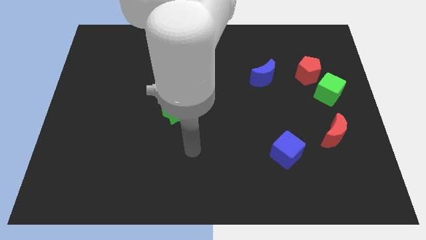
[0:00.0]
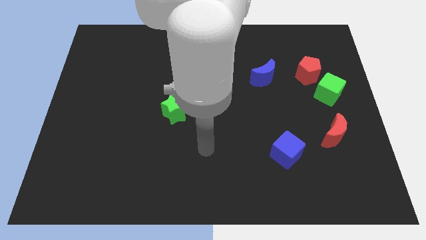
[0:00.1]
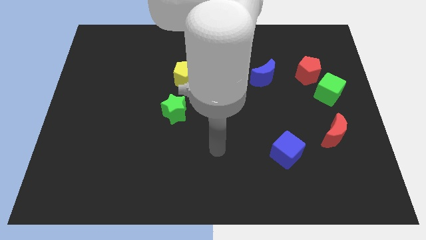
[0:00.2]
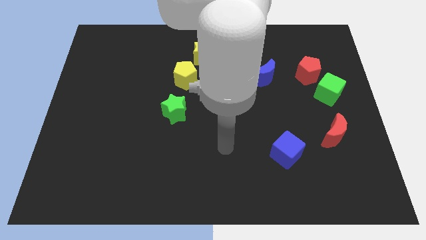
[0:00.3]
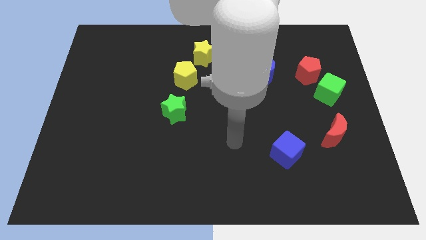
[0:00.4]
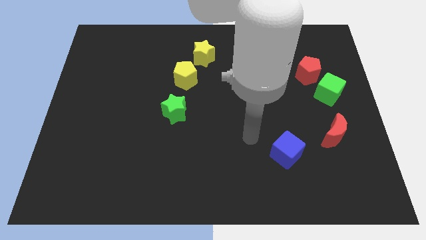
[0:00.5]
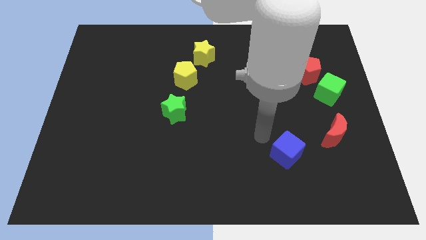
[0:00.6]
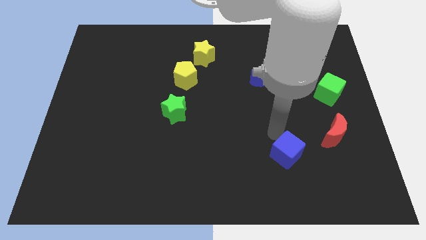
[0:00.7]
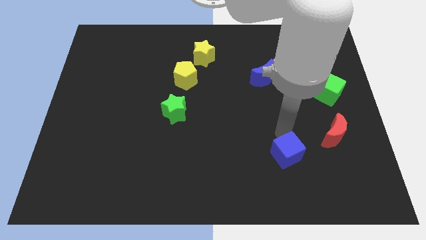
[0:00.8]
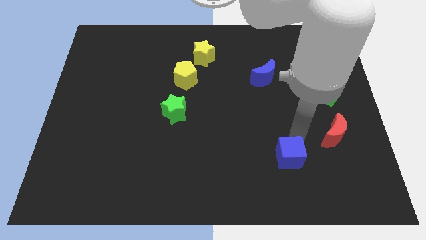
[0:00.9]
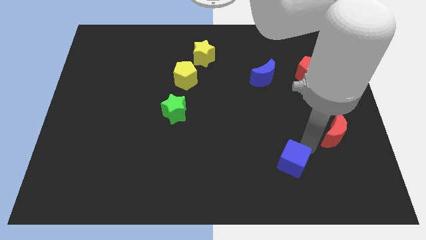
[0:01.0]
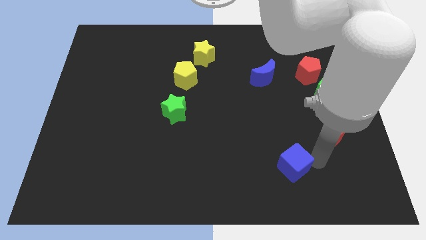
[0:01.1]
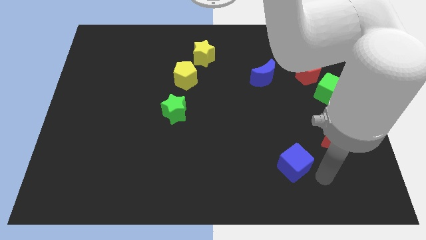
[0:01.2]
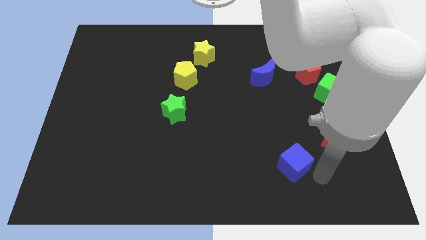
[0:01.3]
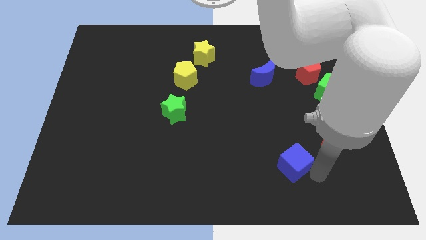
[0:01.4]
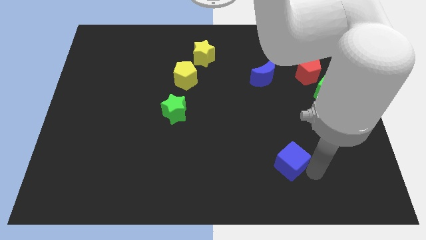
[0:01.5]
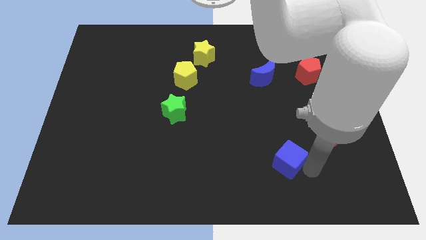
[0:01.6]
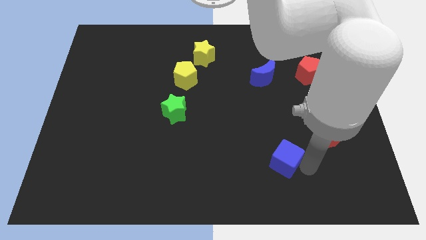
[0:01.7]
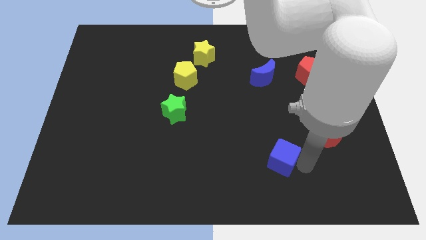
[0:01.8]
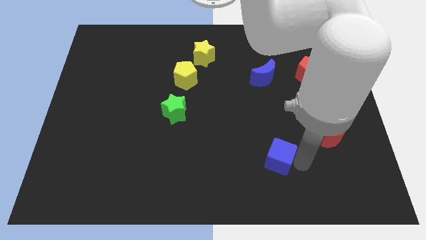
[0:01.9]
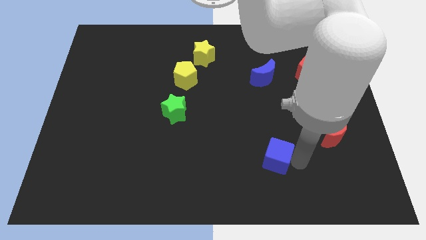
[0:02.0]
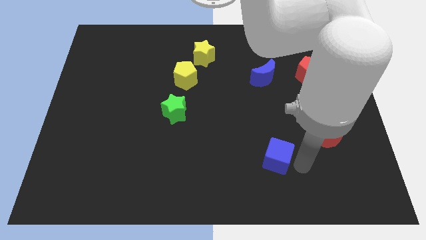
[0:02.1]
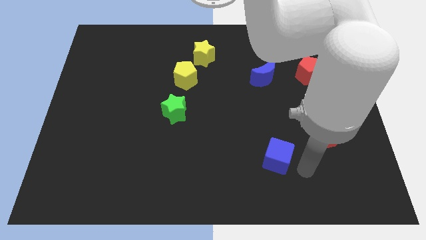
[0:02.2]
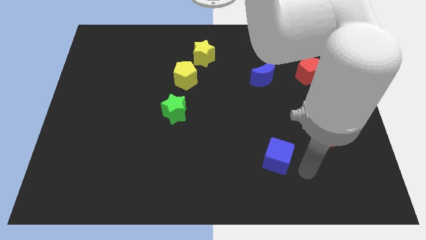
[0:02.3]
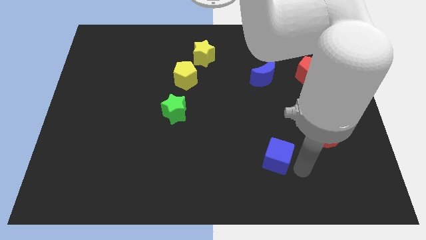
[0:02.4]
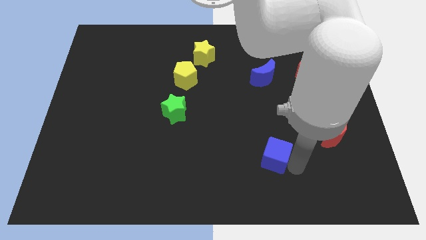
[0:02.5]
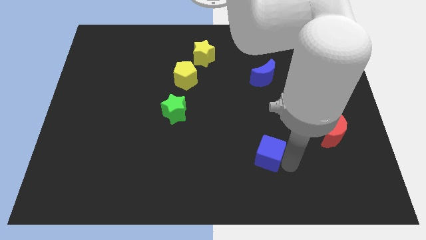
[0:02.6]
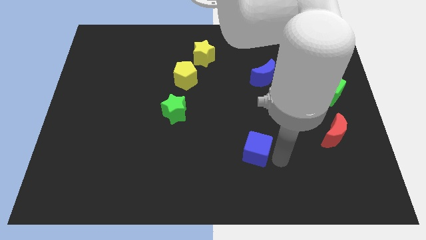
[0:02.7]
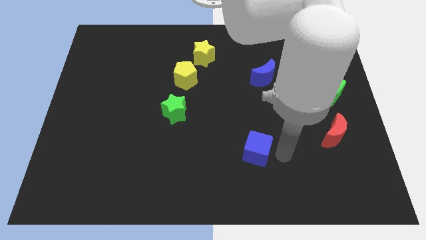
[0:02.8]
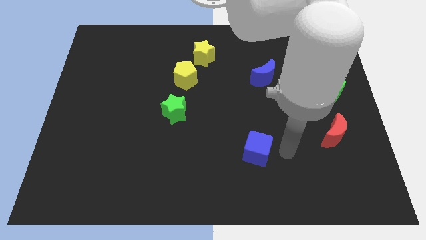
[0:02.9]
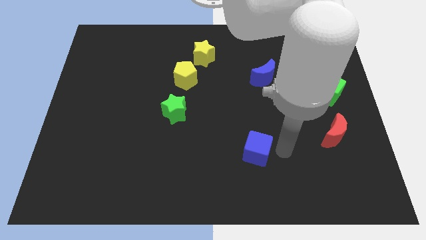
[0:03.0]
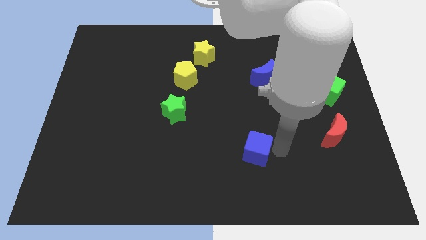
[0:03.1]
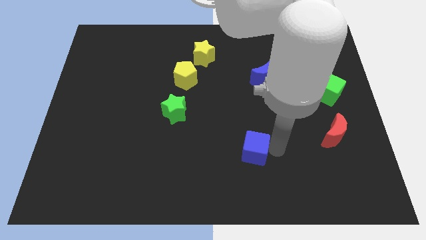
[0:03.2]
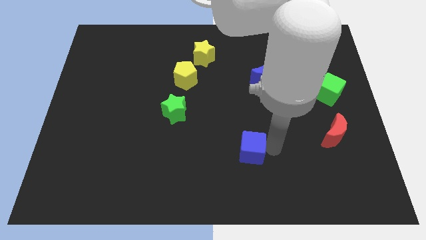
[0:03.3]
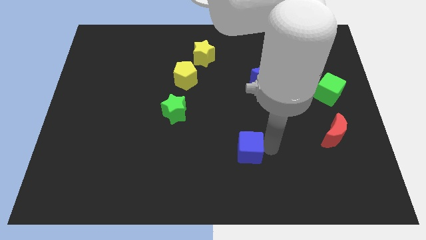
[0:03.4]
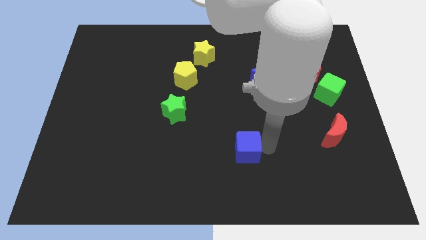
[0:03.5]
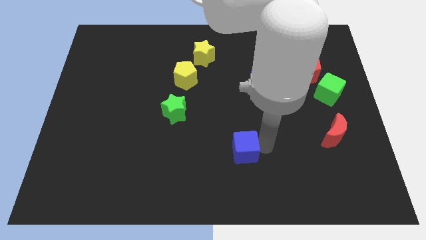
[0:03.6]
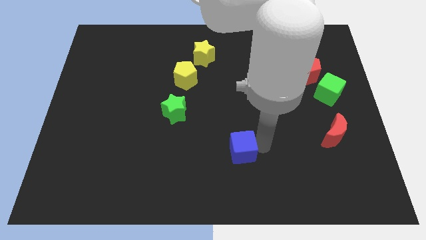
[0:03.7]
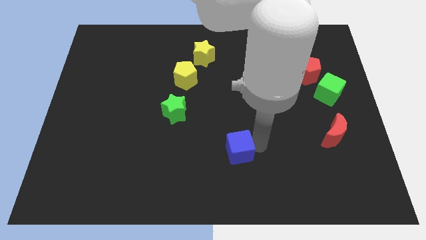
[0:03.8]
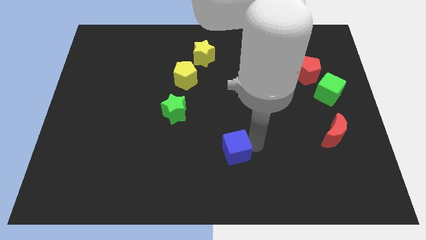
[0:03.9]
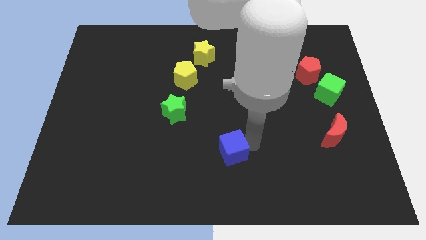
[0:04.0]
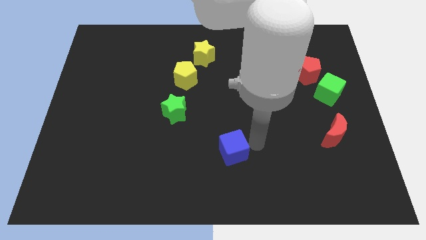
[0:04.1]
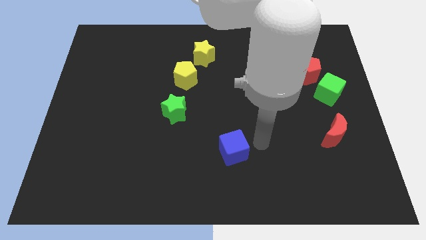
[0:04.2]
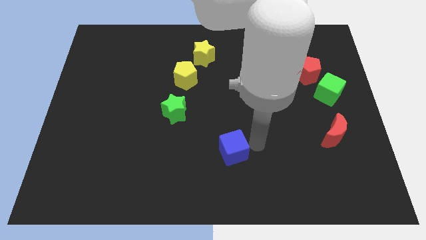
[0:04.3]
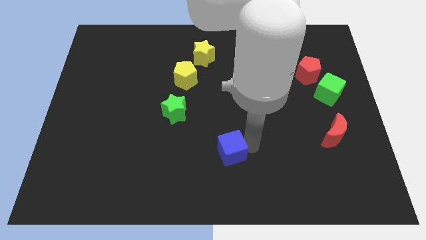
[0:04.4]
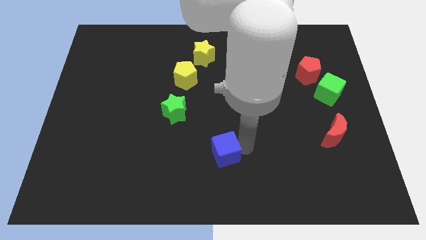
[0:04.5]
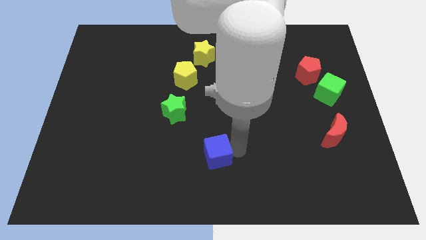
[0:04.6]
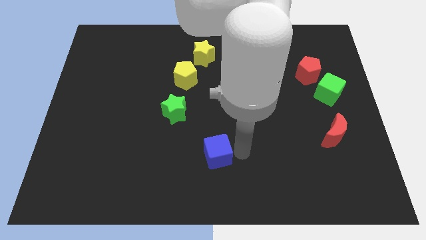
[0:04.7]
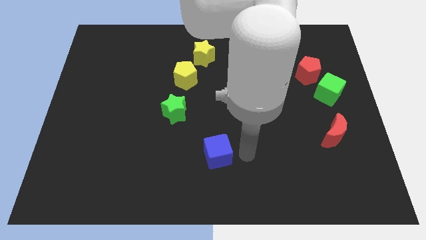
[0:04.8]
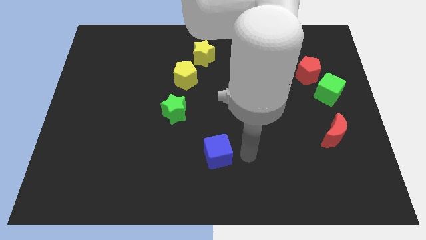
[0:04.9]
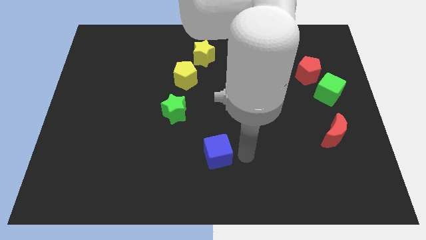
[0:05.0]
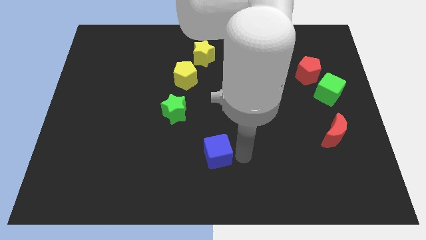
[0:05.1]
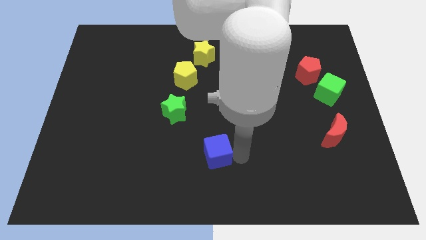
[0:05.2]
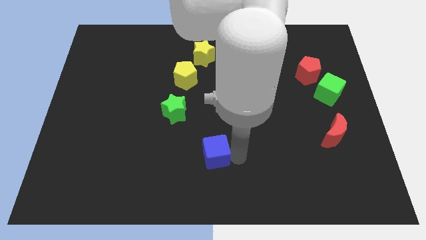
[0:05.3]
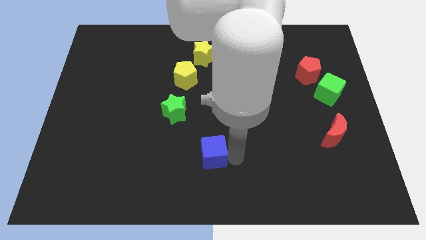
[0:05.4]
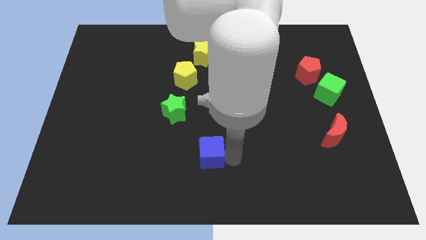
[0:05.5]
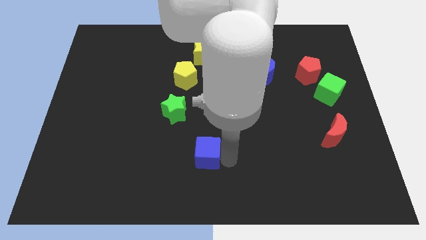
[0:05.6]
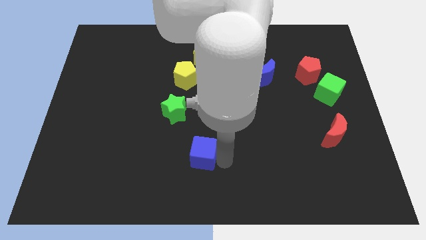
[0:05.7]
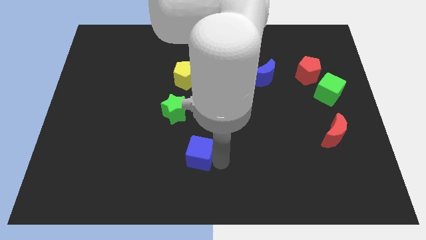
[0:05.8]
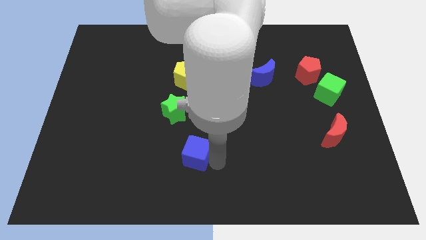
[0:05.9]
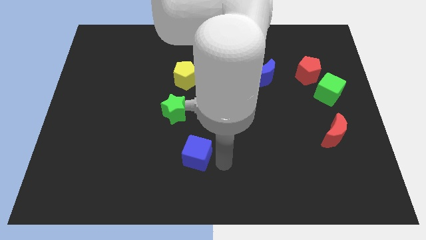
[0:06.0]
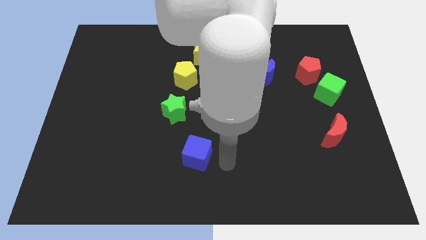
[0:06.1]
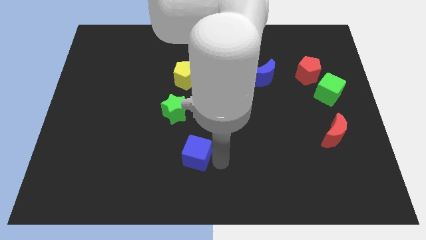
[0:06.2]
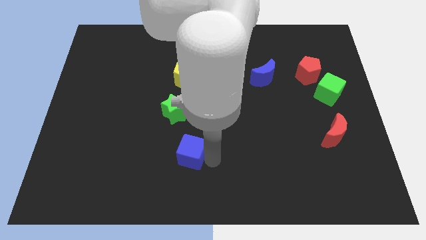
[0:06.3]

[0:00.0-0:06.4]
slide the blue cube to the bottom of the green star

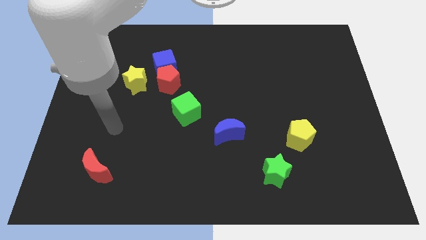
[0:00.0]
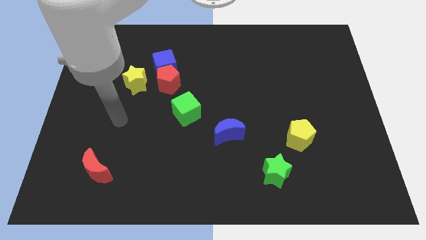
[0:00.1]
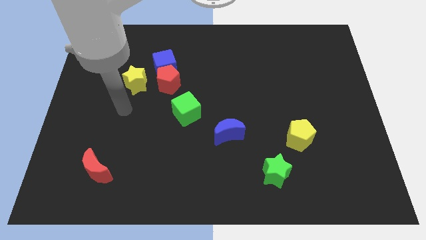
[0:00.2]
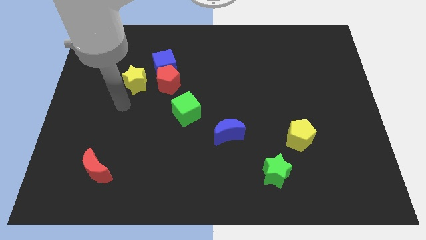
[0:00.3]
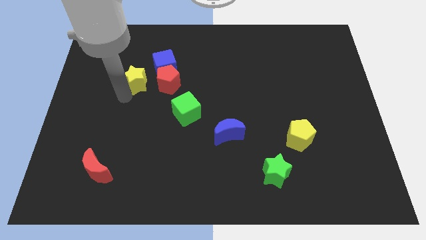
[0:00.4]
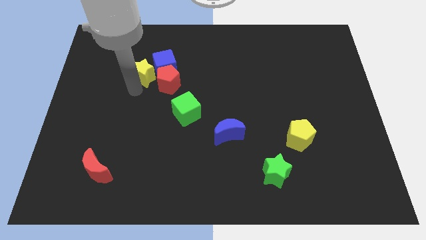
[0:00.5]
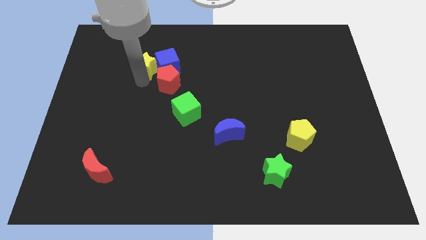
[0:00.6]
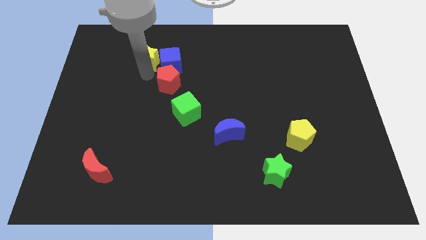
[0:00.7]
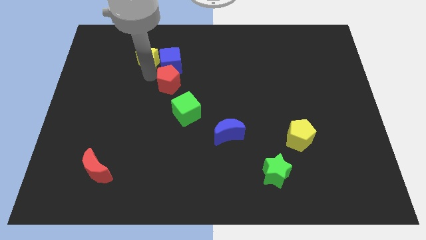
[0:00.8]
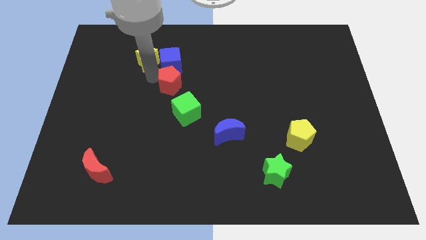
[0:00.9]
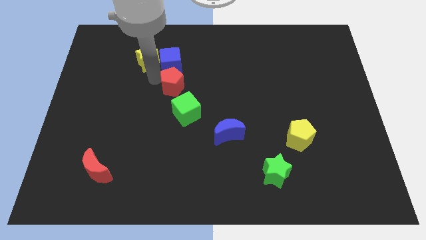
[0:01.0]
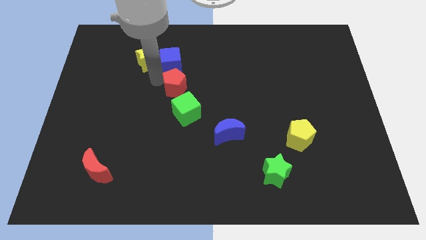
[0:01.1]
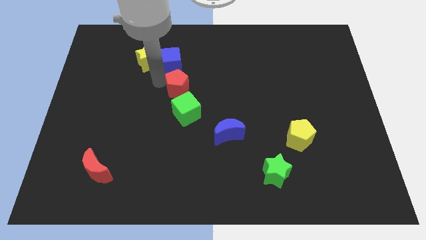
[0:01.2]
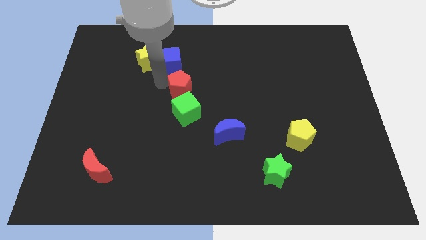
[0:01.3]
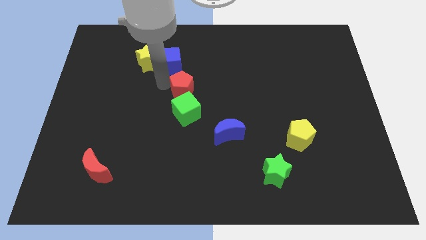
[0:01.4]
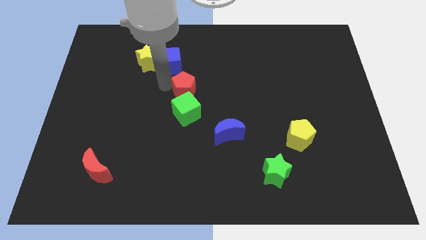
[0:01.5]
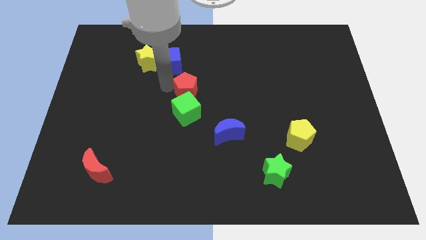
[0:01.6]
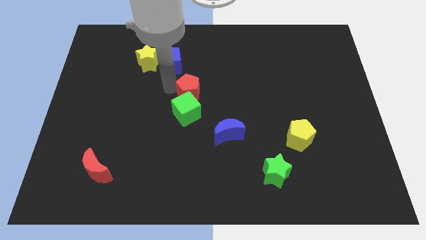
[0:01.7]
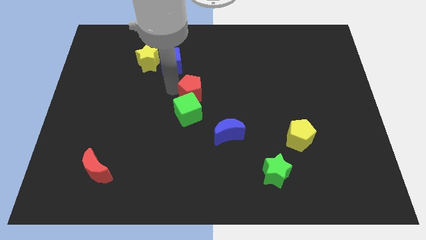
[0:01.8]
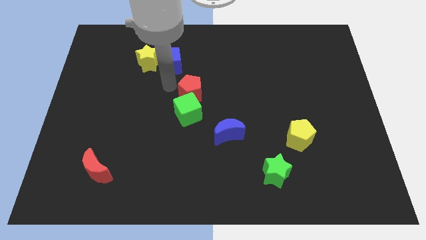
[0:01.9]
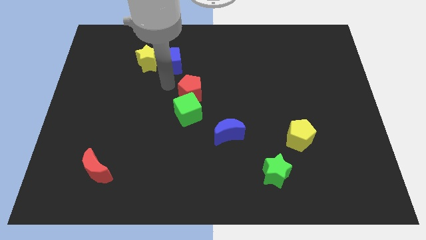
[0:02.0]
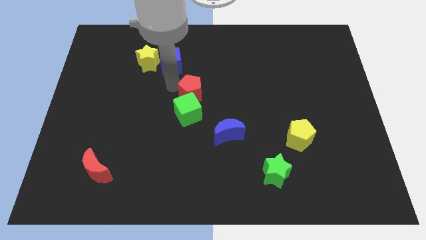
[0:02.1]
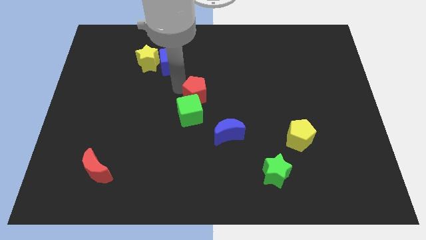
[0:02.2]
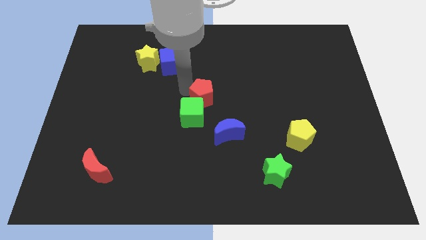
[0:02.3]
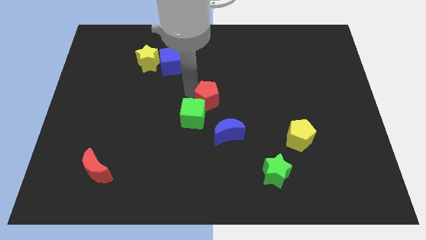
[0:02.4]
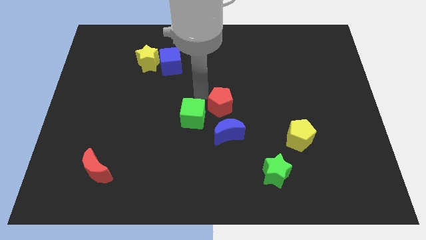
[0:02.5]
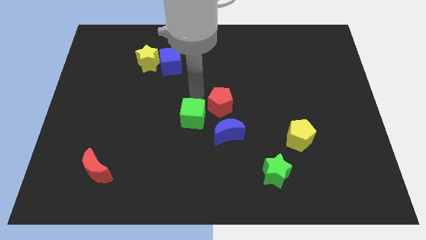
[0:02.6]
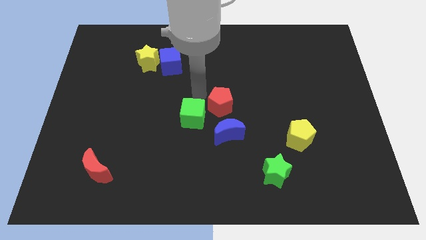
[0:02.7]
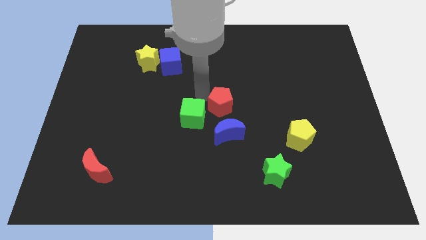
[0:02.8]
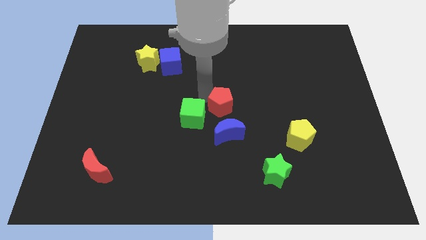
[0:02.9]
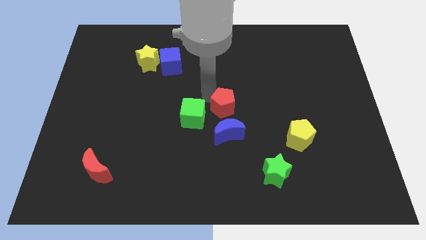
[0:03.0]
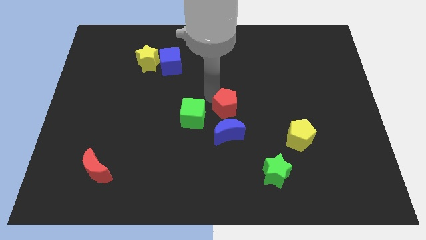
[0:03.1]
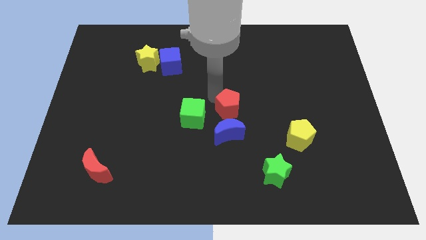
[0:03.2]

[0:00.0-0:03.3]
put the red pentagon to the top right of the blue moon
